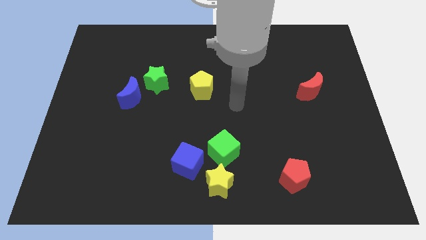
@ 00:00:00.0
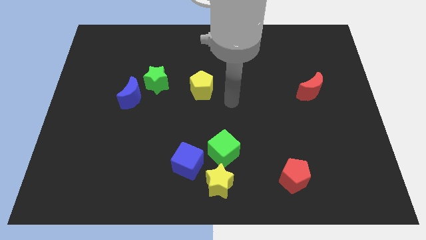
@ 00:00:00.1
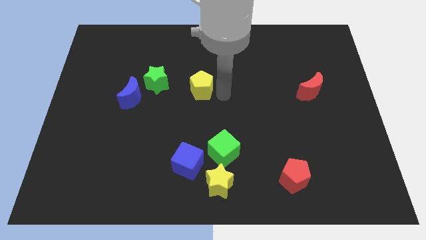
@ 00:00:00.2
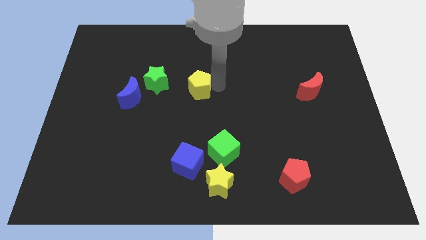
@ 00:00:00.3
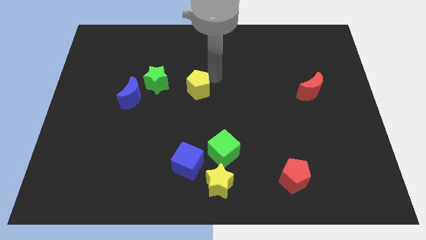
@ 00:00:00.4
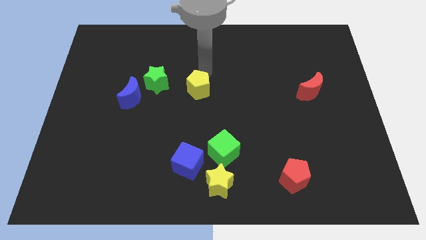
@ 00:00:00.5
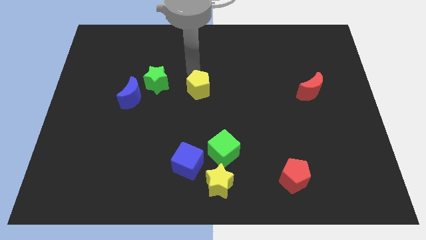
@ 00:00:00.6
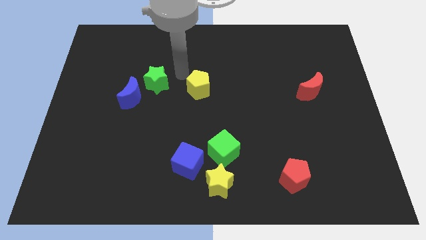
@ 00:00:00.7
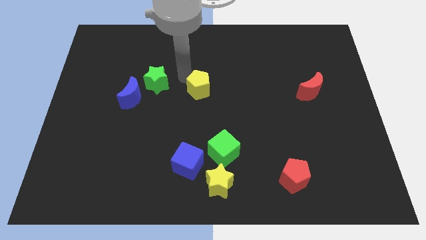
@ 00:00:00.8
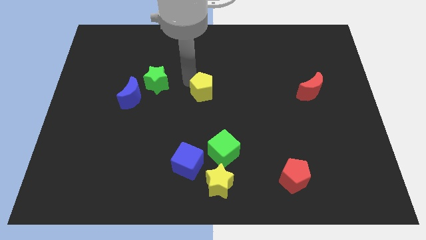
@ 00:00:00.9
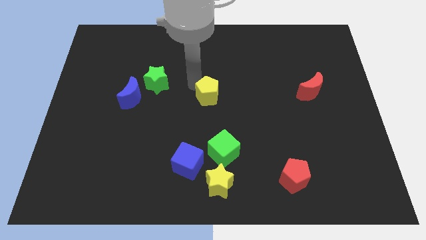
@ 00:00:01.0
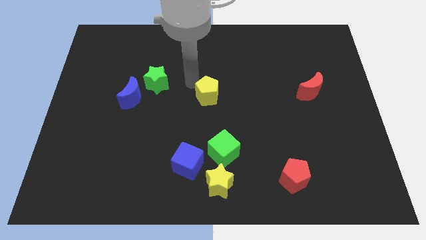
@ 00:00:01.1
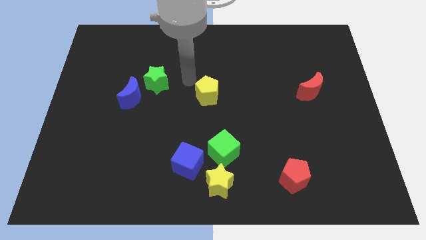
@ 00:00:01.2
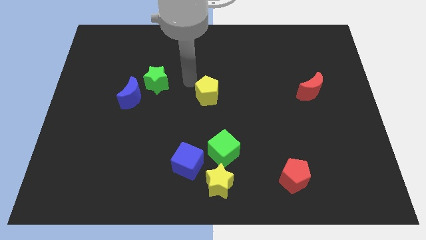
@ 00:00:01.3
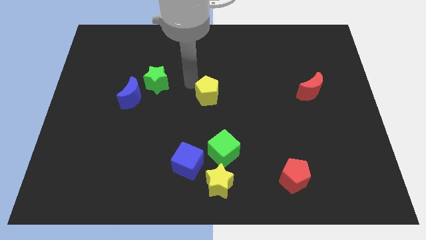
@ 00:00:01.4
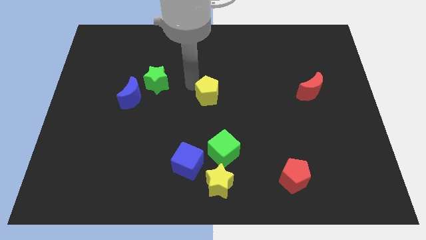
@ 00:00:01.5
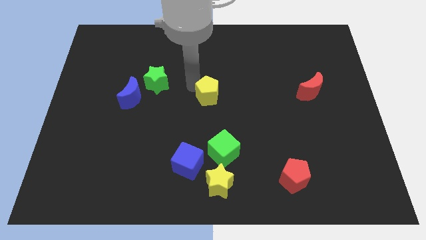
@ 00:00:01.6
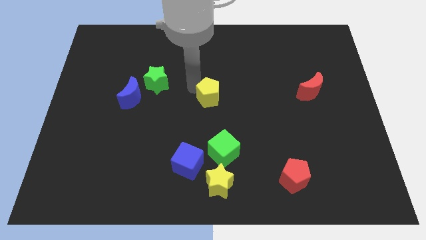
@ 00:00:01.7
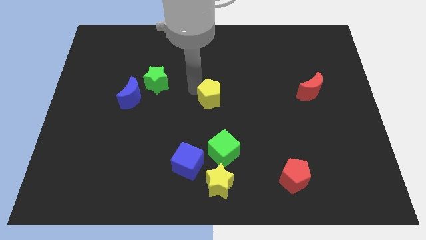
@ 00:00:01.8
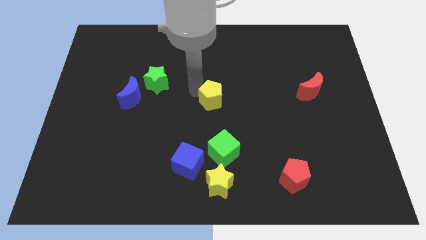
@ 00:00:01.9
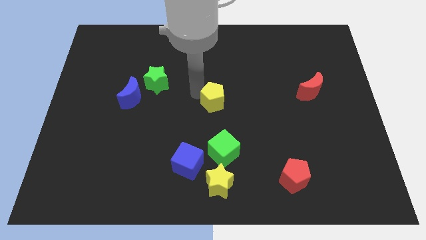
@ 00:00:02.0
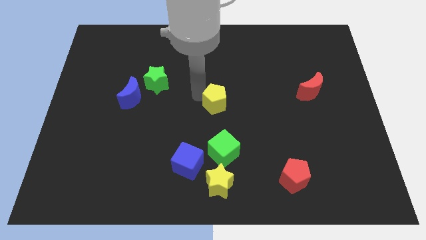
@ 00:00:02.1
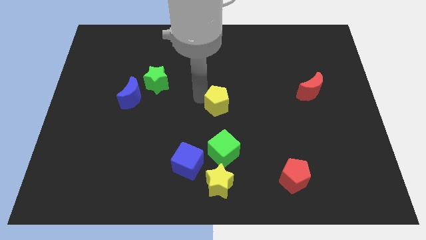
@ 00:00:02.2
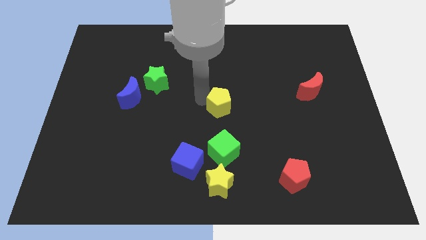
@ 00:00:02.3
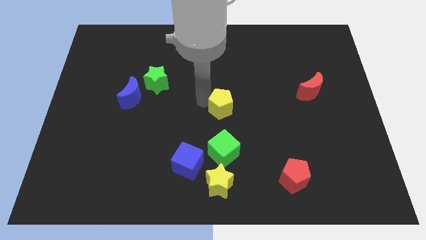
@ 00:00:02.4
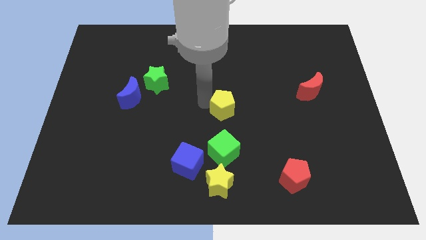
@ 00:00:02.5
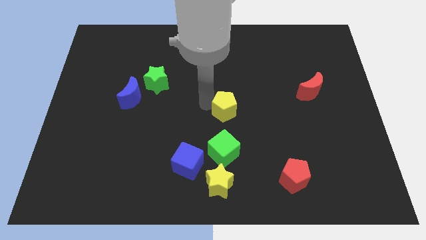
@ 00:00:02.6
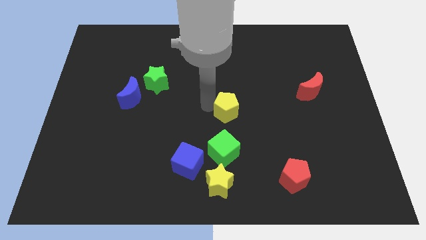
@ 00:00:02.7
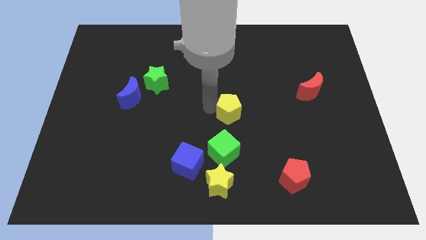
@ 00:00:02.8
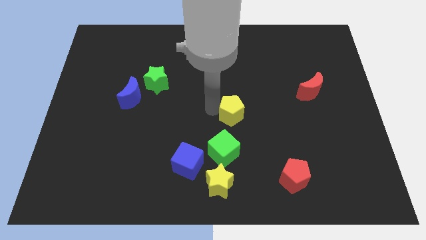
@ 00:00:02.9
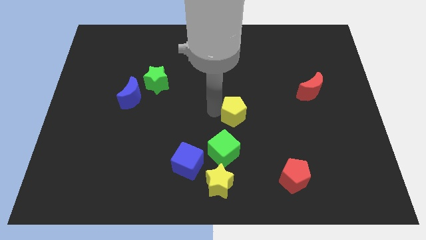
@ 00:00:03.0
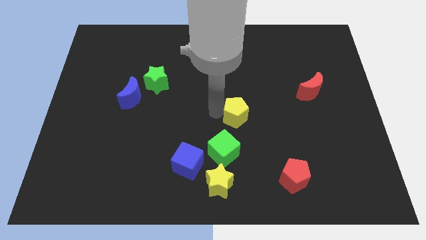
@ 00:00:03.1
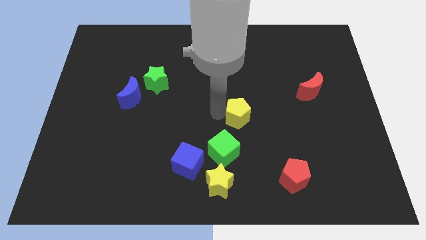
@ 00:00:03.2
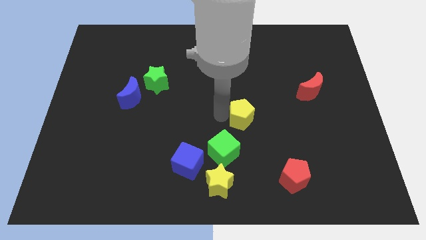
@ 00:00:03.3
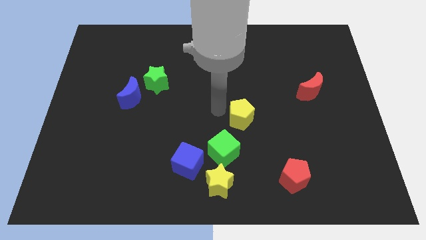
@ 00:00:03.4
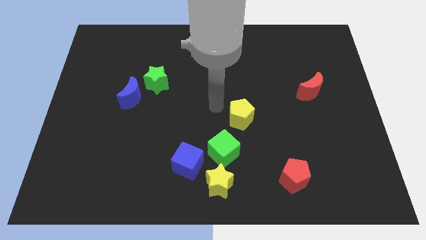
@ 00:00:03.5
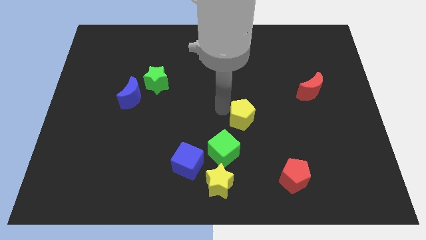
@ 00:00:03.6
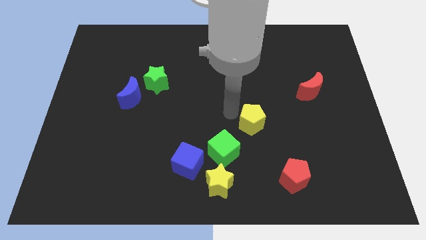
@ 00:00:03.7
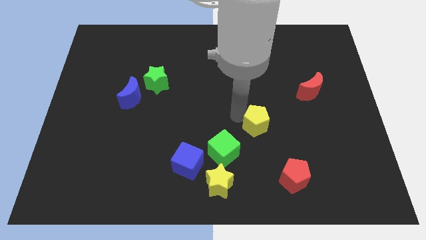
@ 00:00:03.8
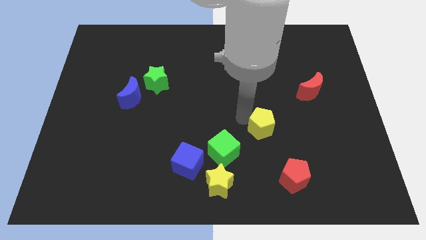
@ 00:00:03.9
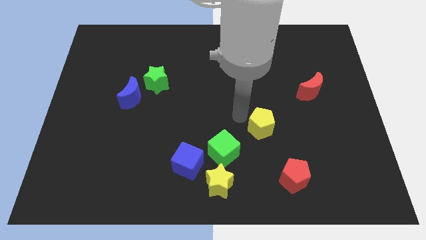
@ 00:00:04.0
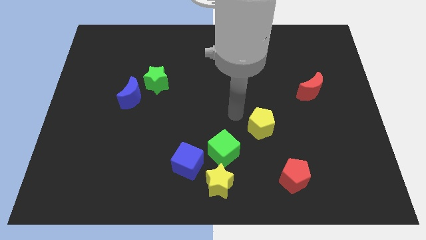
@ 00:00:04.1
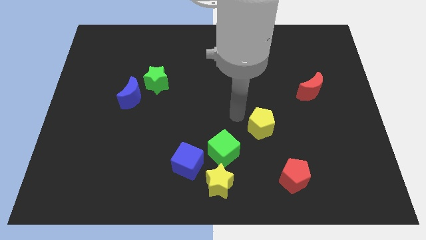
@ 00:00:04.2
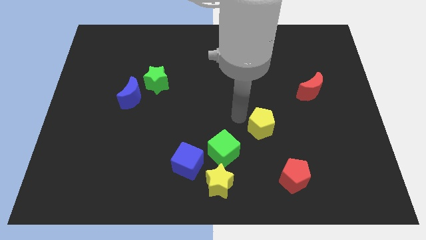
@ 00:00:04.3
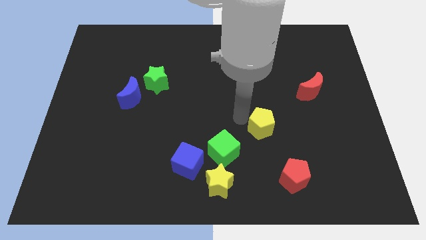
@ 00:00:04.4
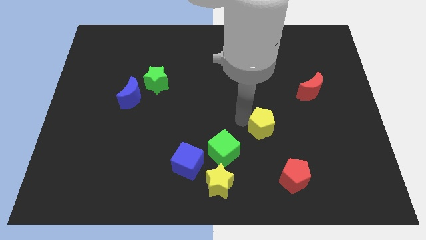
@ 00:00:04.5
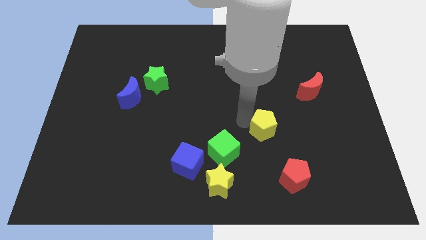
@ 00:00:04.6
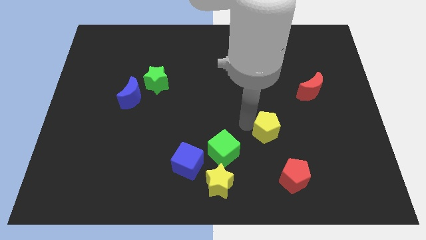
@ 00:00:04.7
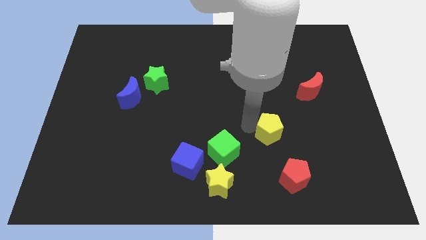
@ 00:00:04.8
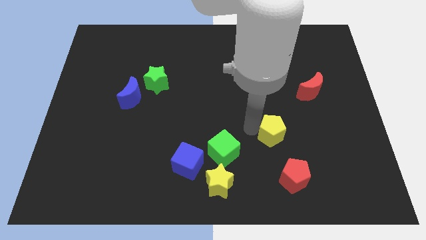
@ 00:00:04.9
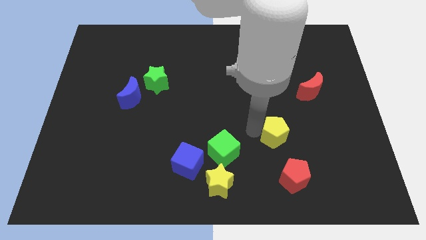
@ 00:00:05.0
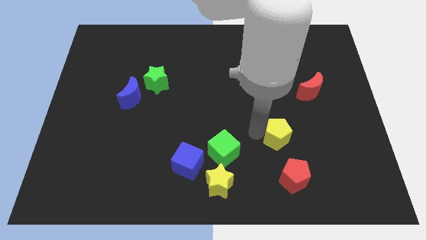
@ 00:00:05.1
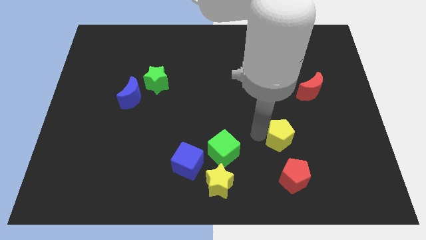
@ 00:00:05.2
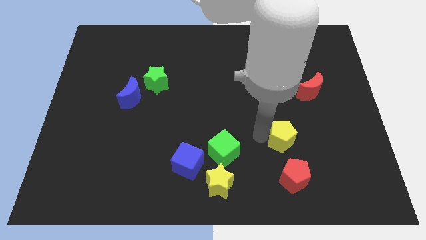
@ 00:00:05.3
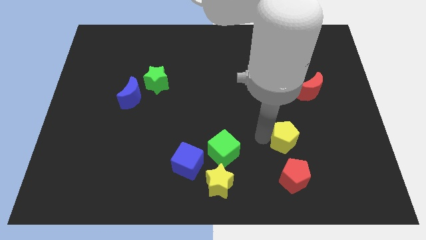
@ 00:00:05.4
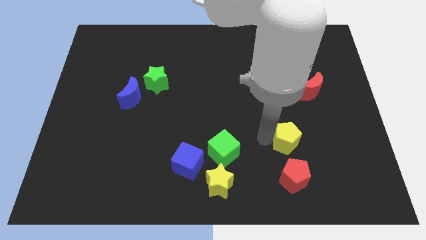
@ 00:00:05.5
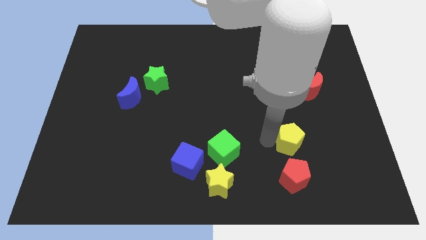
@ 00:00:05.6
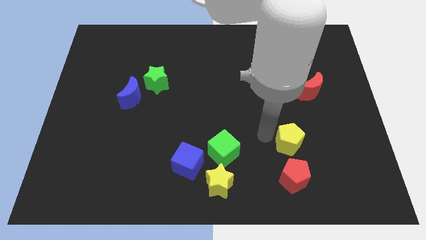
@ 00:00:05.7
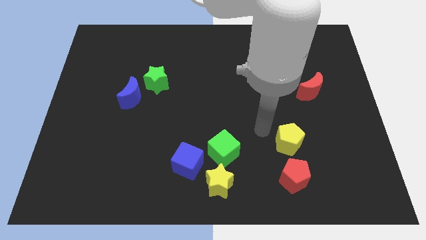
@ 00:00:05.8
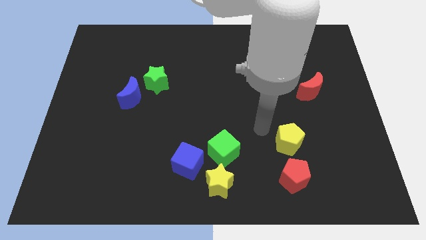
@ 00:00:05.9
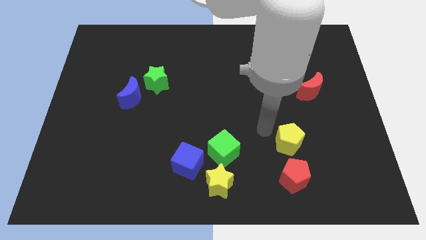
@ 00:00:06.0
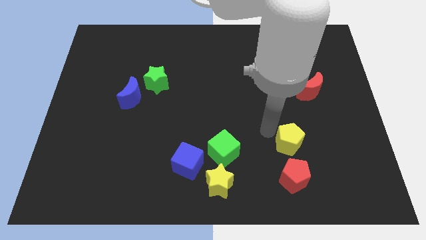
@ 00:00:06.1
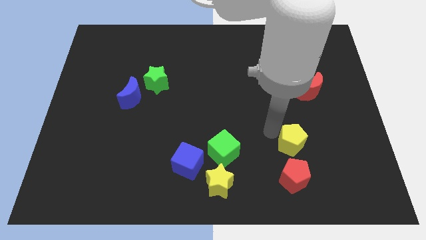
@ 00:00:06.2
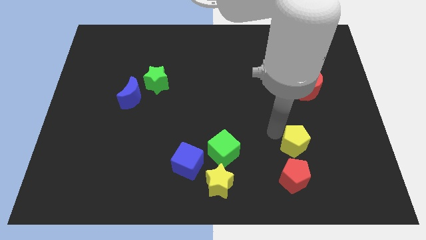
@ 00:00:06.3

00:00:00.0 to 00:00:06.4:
move the yellow pentagon to the top right side of the red pentagon

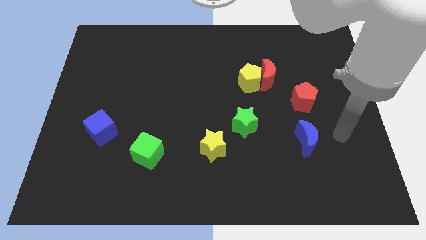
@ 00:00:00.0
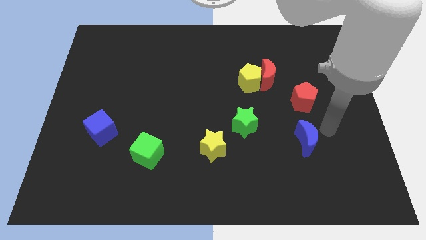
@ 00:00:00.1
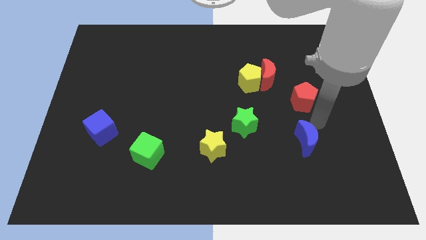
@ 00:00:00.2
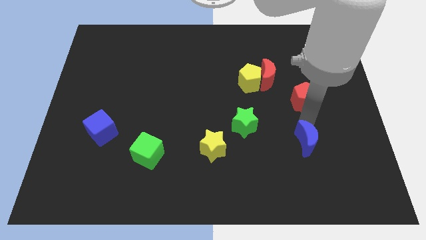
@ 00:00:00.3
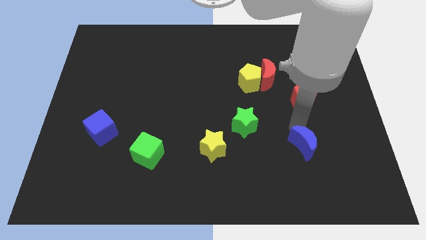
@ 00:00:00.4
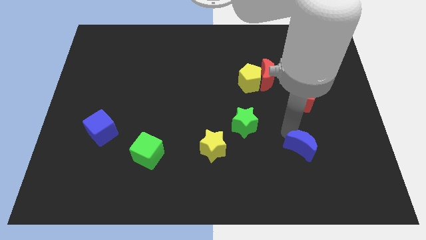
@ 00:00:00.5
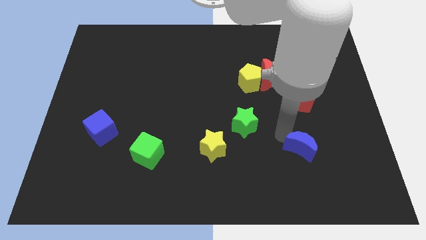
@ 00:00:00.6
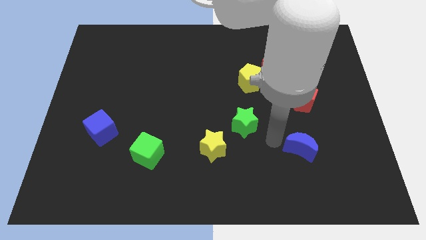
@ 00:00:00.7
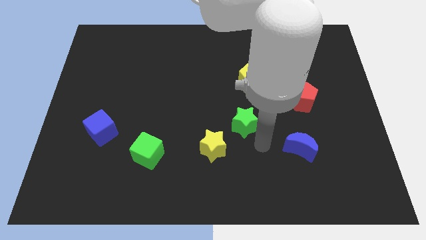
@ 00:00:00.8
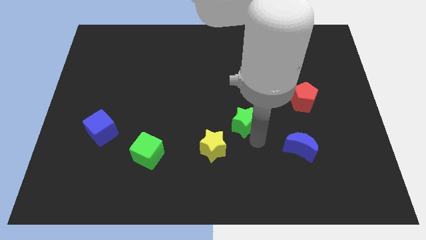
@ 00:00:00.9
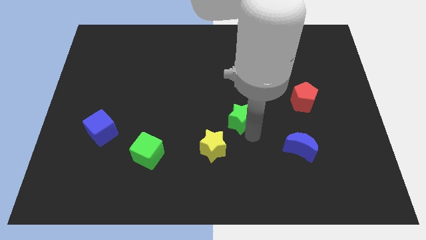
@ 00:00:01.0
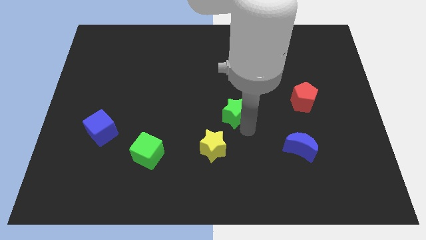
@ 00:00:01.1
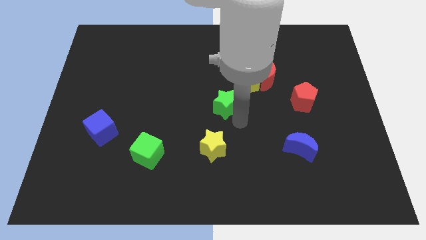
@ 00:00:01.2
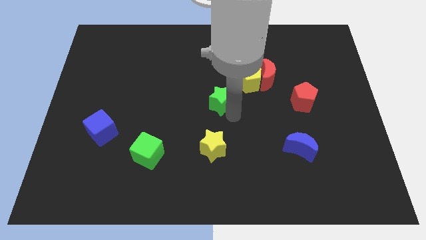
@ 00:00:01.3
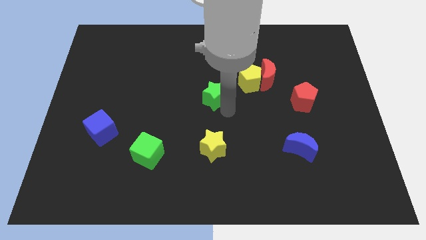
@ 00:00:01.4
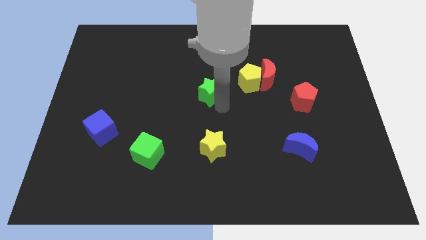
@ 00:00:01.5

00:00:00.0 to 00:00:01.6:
push the green star left of the yellow pentagon

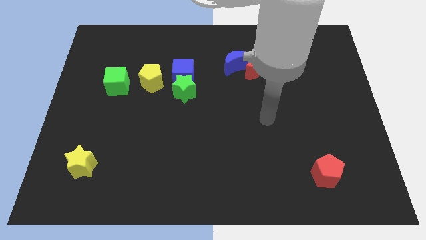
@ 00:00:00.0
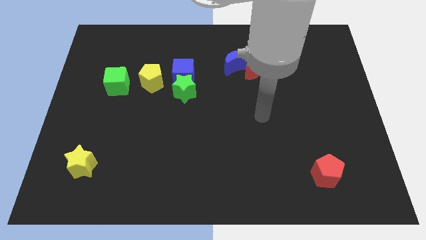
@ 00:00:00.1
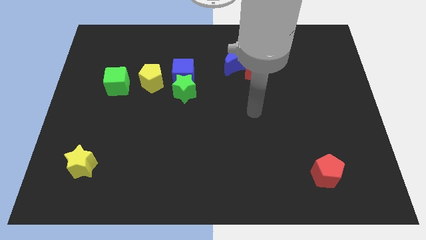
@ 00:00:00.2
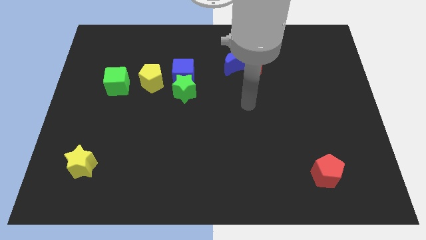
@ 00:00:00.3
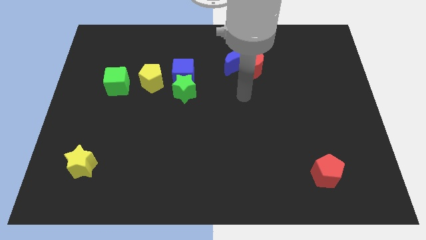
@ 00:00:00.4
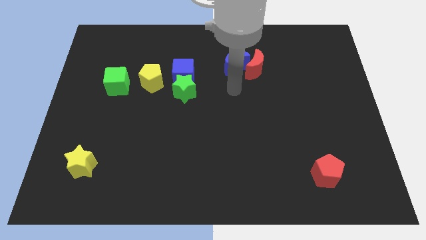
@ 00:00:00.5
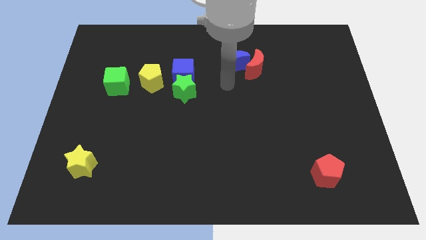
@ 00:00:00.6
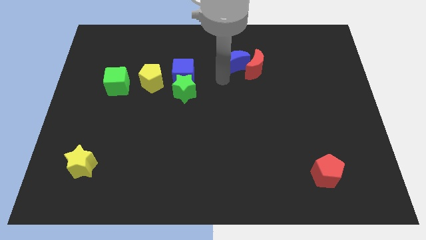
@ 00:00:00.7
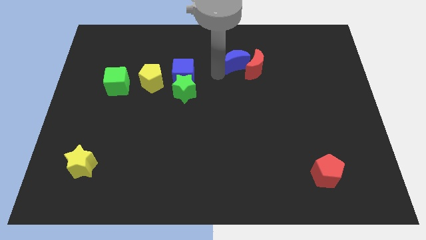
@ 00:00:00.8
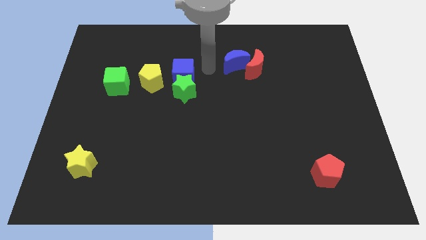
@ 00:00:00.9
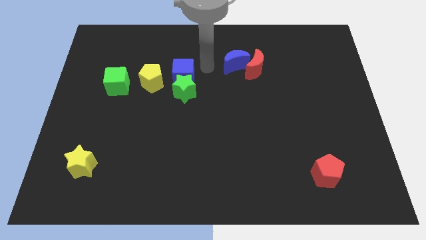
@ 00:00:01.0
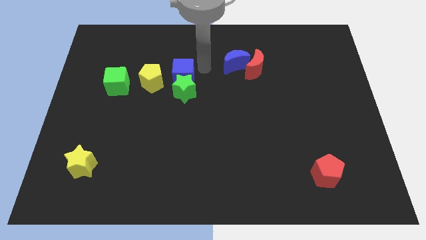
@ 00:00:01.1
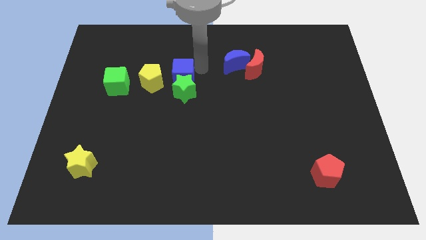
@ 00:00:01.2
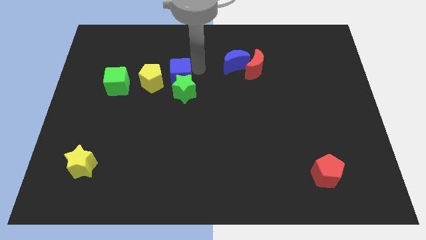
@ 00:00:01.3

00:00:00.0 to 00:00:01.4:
slide the blue cube just right of the green cube
